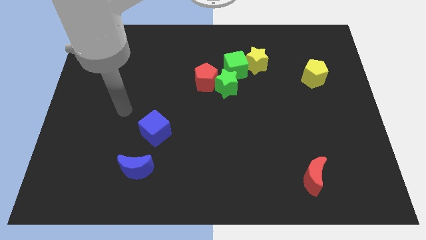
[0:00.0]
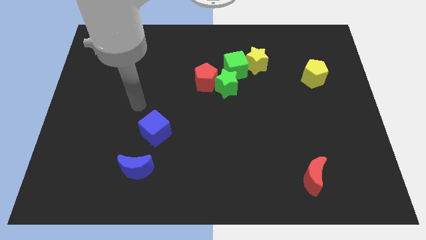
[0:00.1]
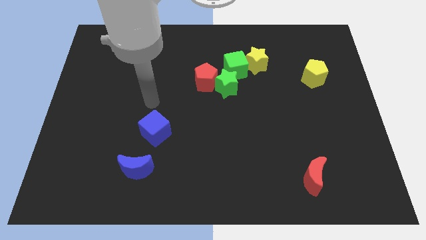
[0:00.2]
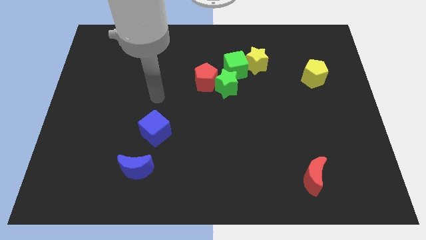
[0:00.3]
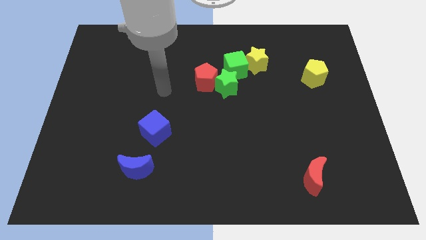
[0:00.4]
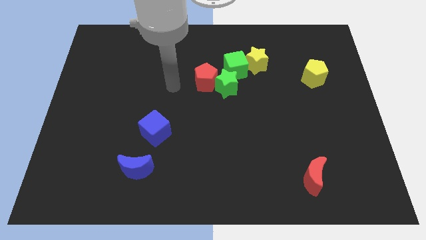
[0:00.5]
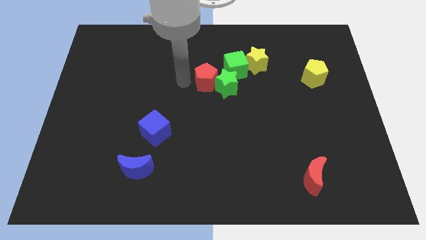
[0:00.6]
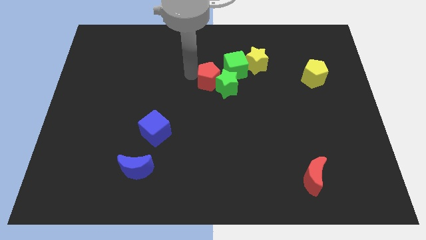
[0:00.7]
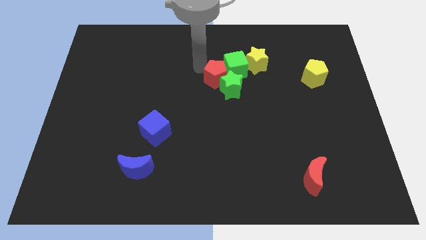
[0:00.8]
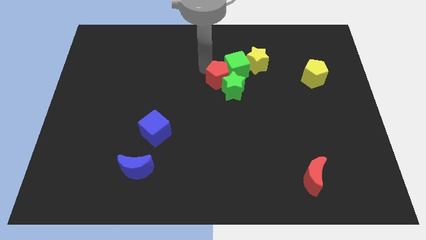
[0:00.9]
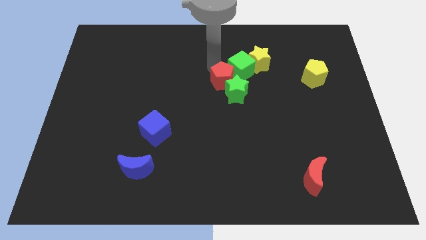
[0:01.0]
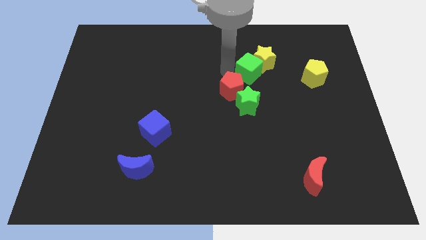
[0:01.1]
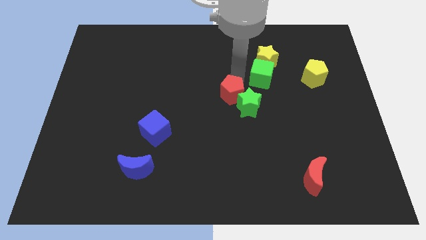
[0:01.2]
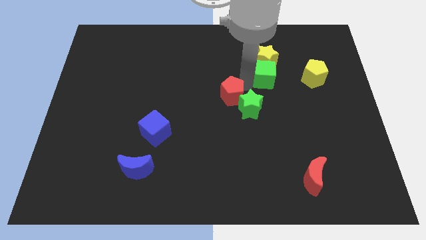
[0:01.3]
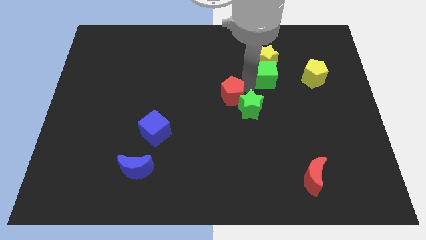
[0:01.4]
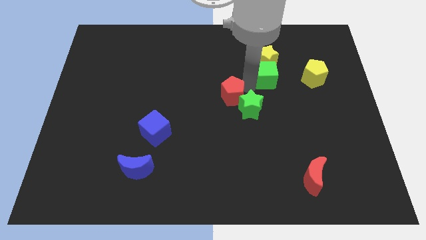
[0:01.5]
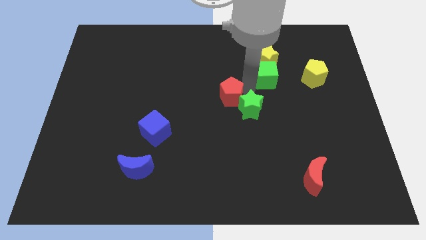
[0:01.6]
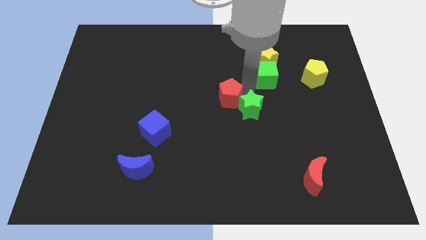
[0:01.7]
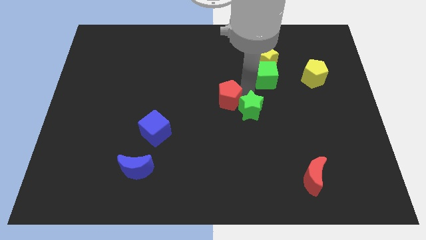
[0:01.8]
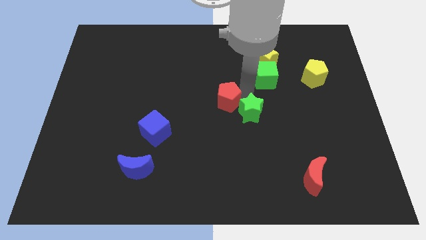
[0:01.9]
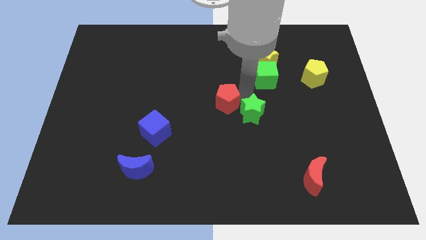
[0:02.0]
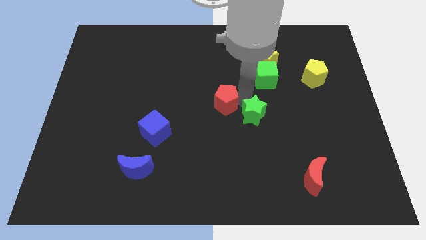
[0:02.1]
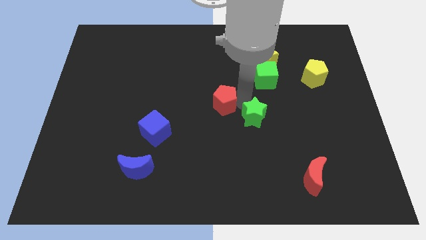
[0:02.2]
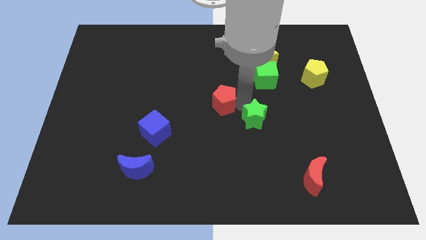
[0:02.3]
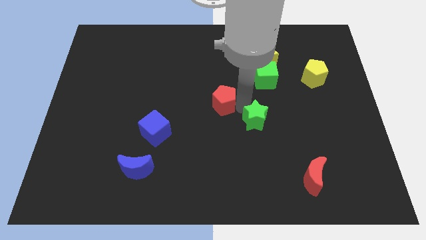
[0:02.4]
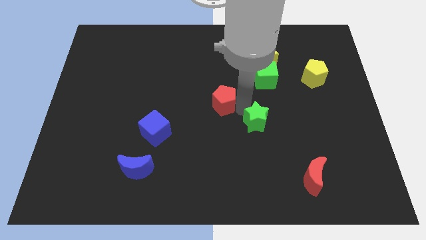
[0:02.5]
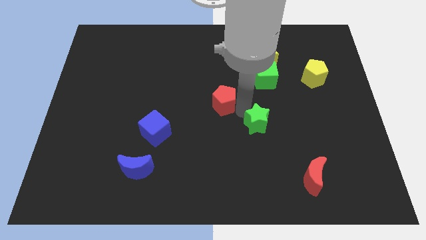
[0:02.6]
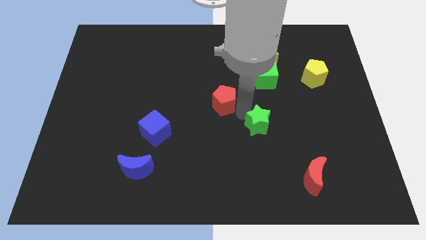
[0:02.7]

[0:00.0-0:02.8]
separate the green star from the red pentagon and green cube

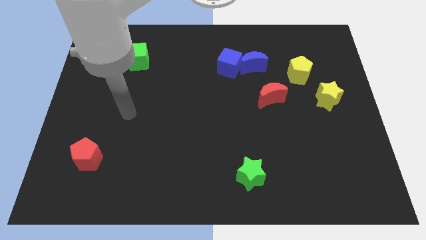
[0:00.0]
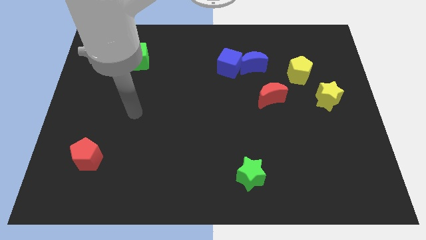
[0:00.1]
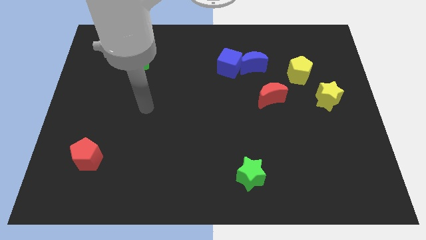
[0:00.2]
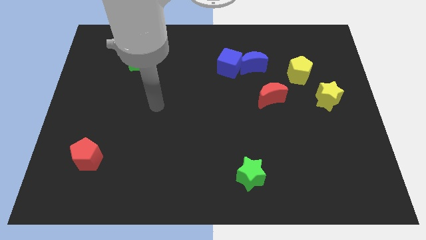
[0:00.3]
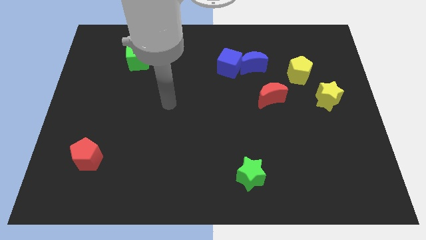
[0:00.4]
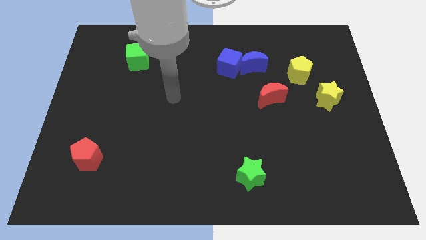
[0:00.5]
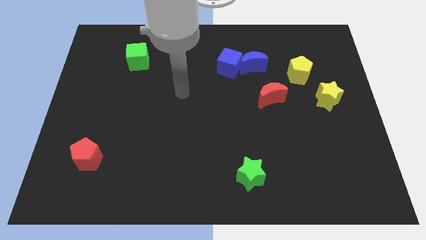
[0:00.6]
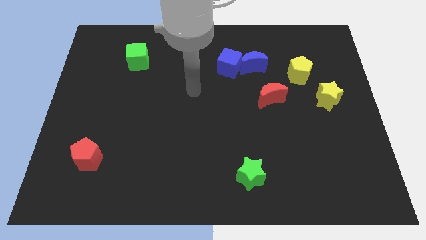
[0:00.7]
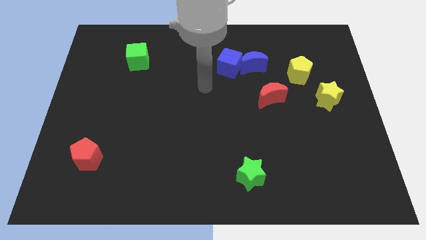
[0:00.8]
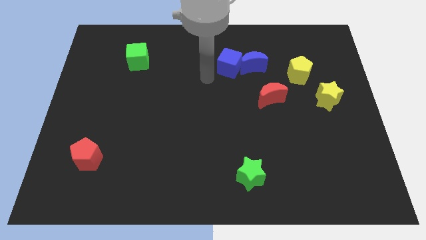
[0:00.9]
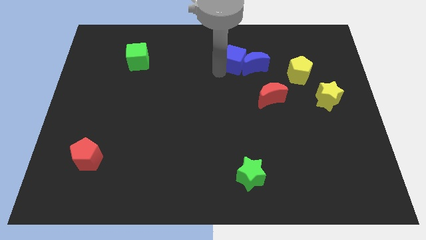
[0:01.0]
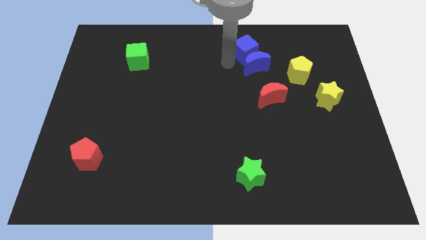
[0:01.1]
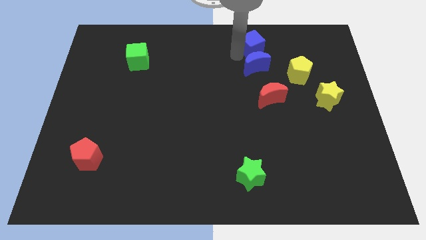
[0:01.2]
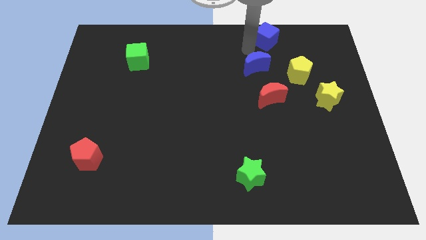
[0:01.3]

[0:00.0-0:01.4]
move the blue moon away from the blue cube

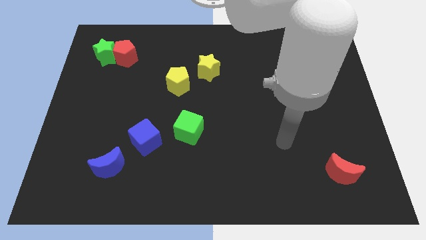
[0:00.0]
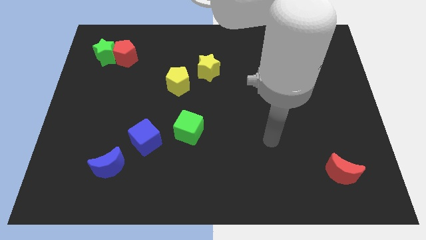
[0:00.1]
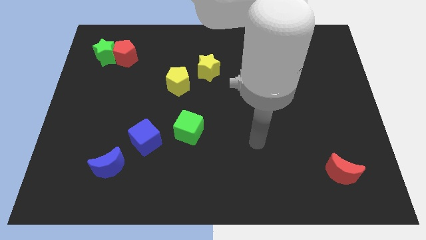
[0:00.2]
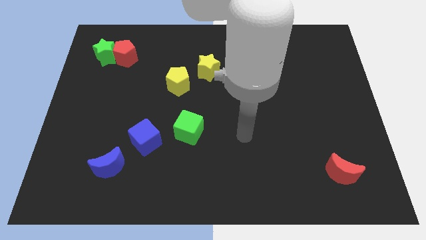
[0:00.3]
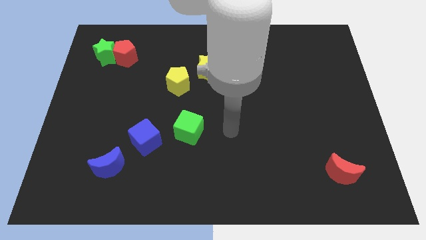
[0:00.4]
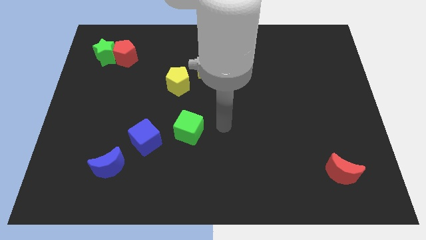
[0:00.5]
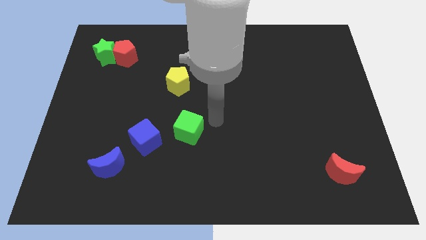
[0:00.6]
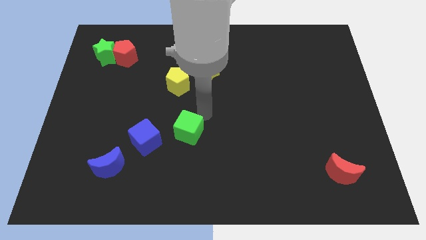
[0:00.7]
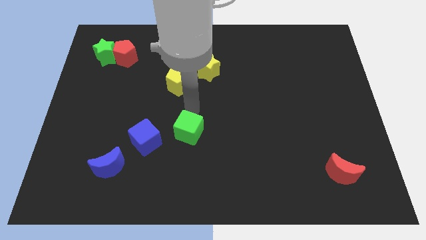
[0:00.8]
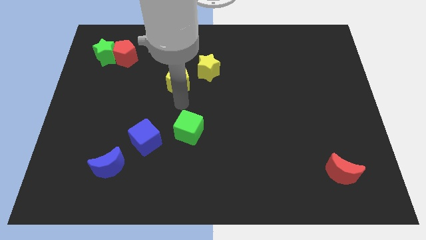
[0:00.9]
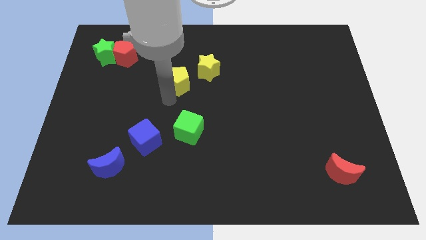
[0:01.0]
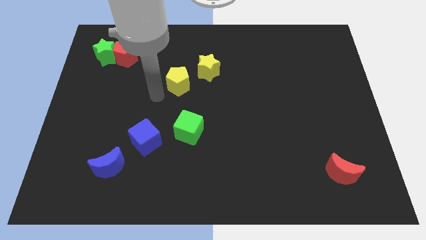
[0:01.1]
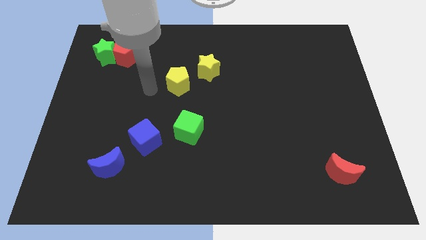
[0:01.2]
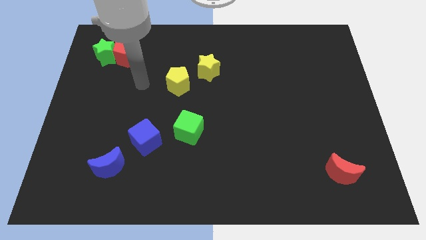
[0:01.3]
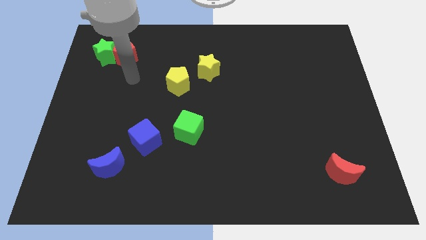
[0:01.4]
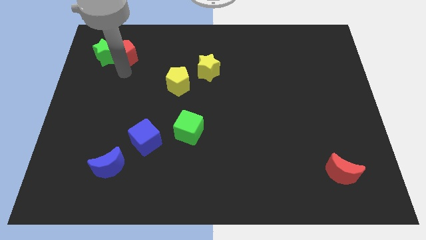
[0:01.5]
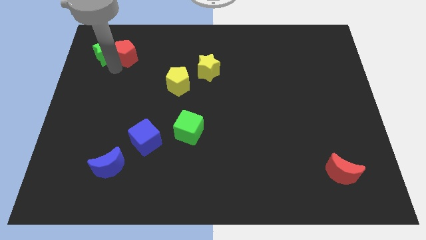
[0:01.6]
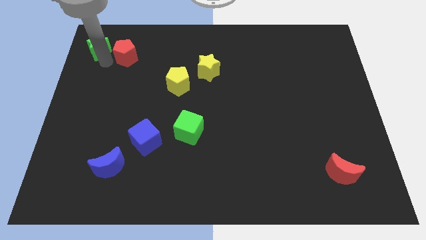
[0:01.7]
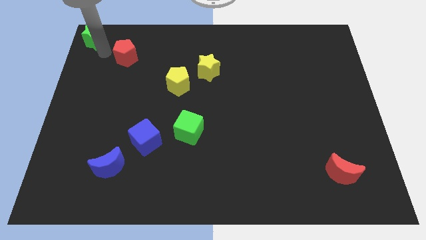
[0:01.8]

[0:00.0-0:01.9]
move the red pentagon away from the green star

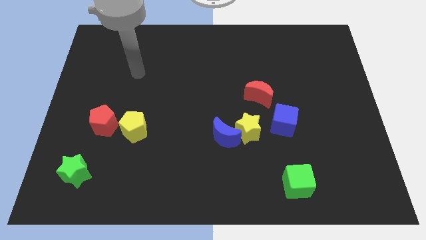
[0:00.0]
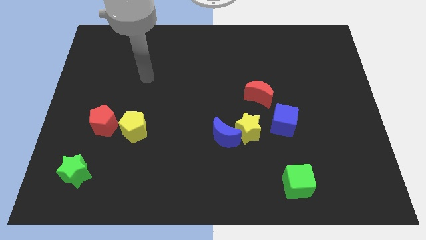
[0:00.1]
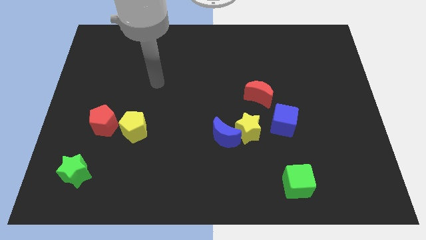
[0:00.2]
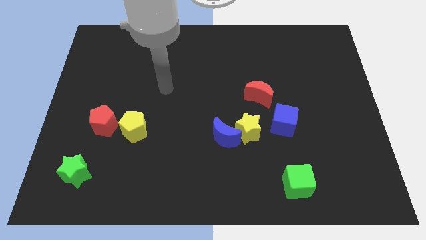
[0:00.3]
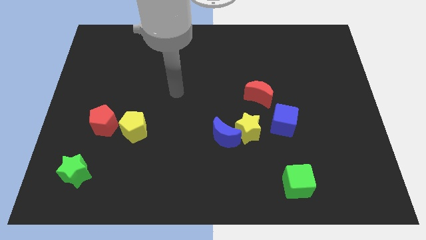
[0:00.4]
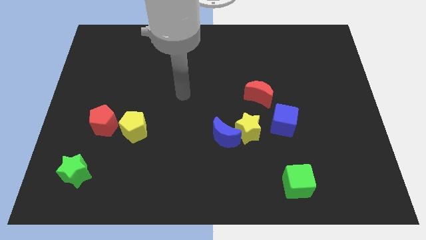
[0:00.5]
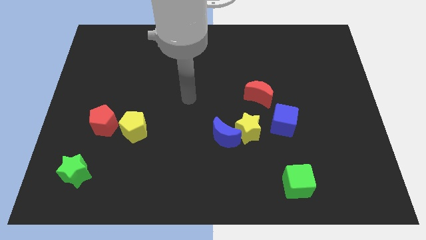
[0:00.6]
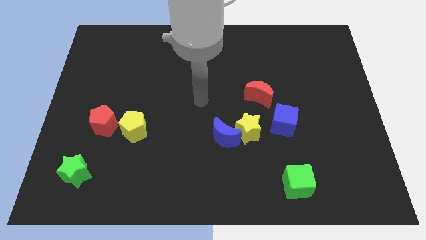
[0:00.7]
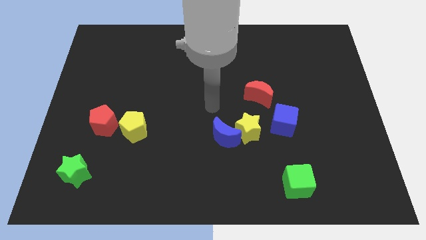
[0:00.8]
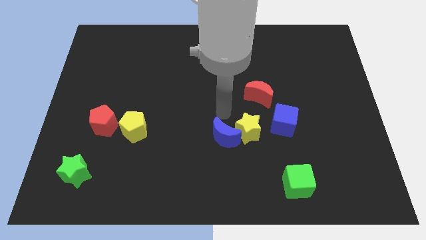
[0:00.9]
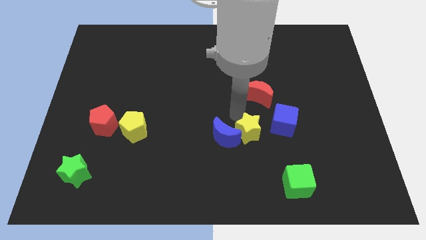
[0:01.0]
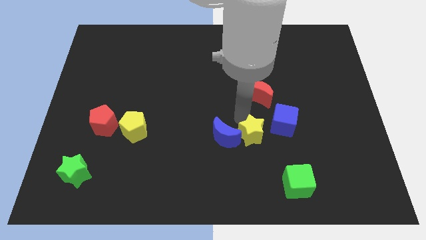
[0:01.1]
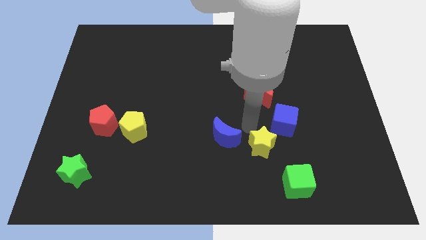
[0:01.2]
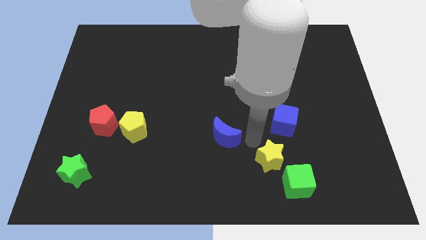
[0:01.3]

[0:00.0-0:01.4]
move the blue moon away from the yellow star

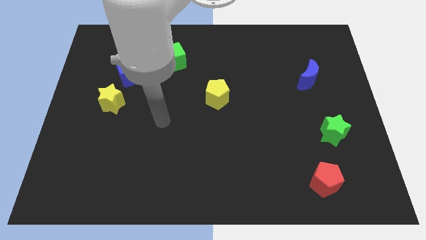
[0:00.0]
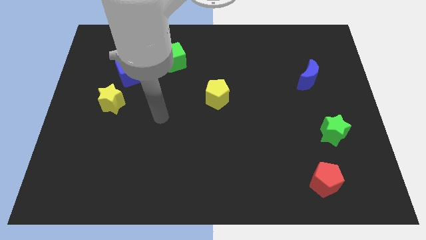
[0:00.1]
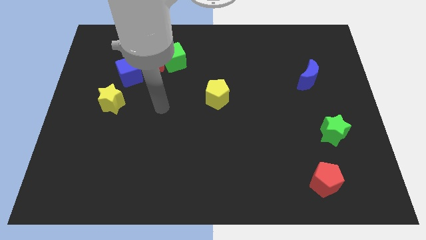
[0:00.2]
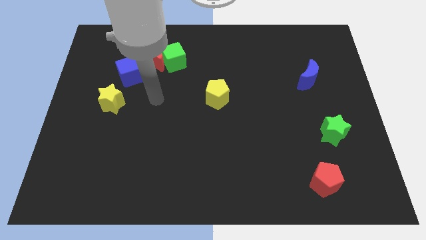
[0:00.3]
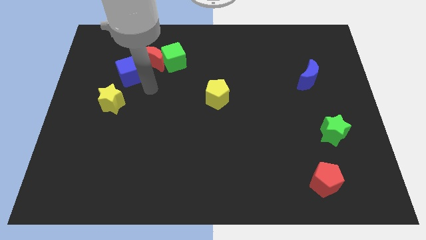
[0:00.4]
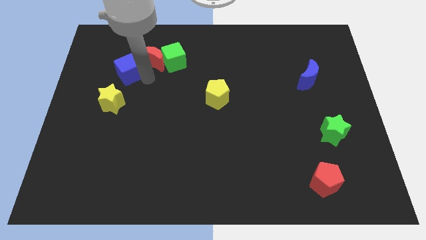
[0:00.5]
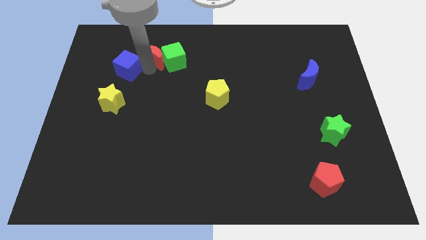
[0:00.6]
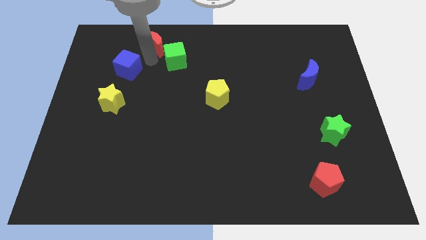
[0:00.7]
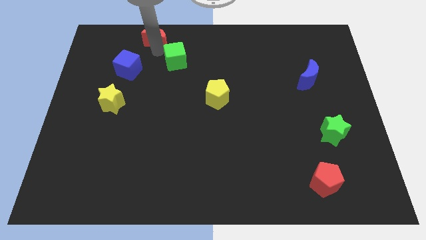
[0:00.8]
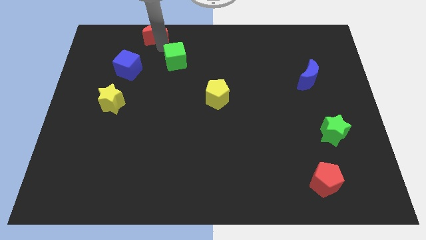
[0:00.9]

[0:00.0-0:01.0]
pull the green cube apart from the red moon

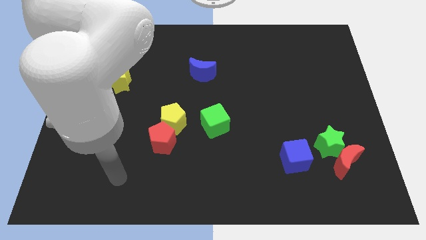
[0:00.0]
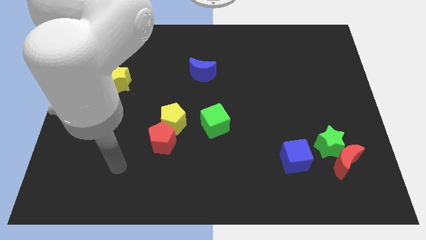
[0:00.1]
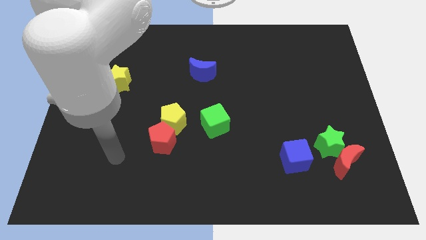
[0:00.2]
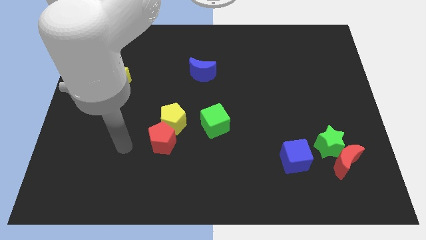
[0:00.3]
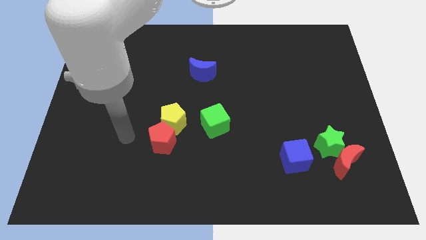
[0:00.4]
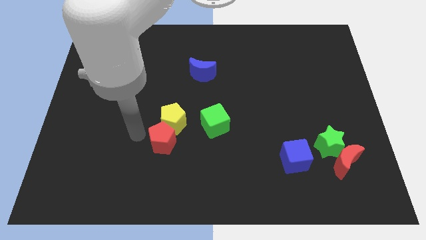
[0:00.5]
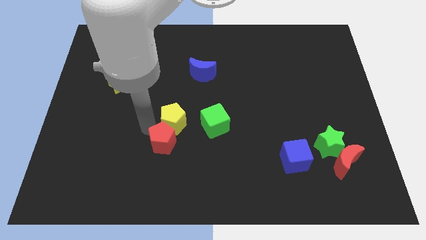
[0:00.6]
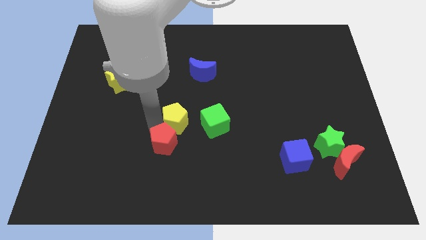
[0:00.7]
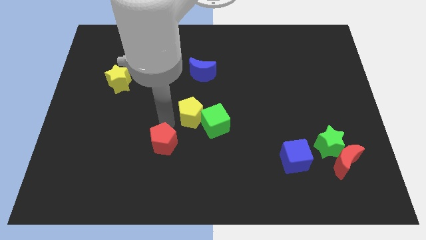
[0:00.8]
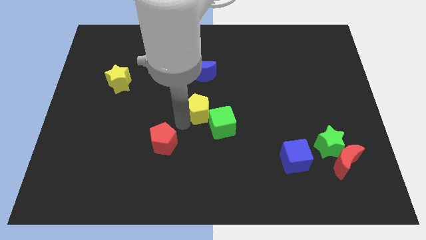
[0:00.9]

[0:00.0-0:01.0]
move the red pentagon away from the yellow pentagon
